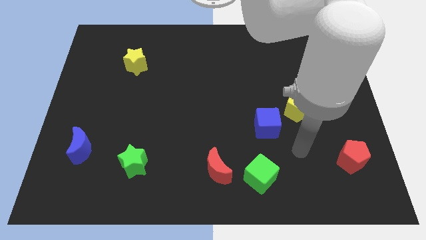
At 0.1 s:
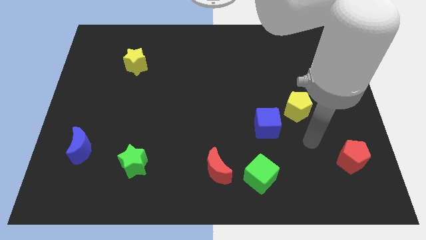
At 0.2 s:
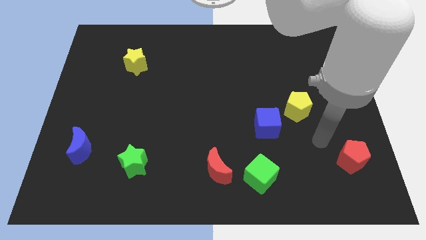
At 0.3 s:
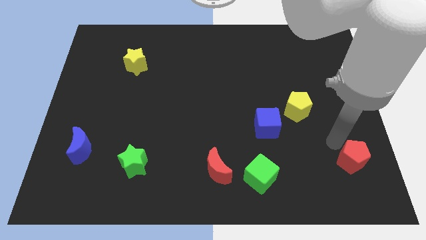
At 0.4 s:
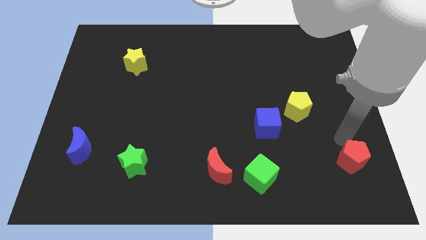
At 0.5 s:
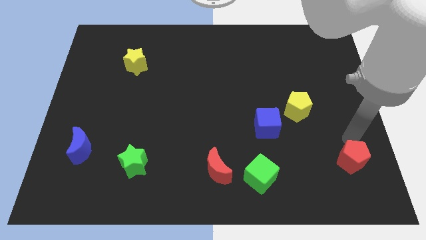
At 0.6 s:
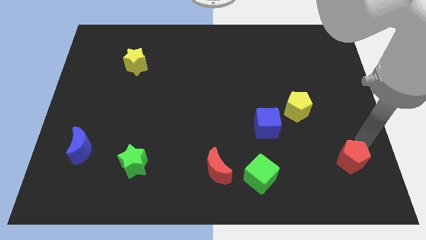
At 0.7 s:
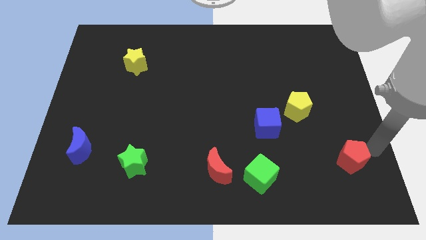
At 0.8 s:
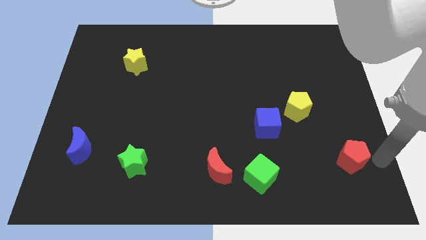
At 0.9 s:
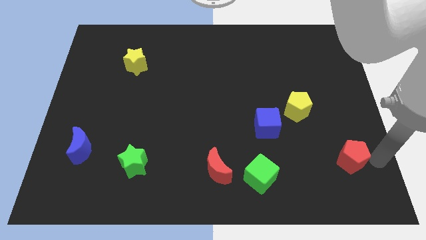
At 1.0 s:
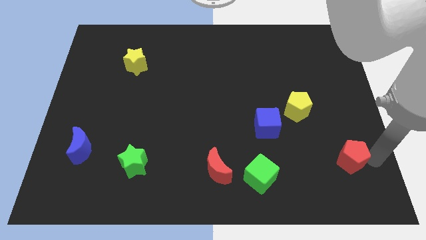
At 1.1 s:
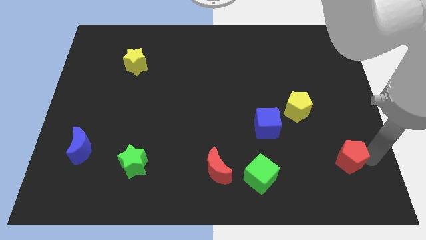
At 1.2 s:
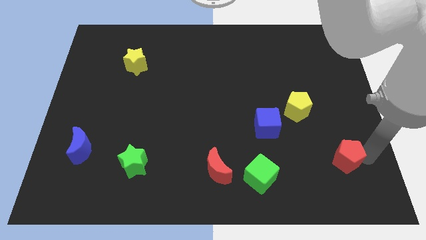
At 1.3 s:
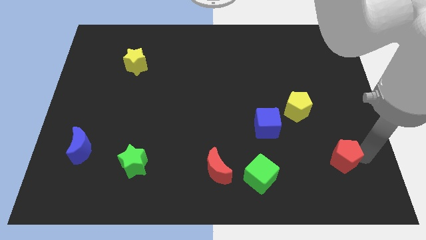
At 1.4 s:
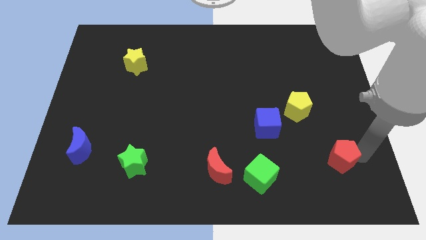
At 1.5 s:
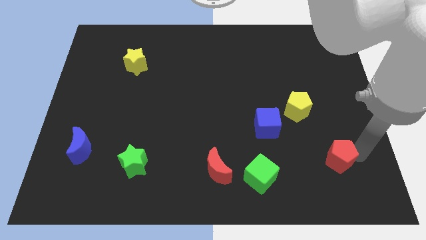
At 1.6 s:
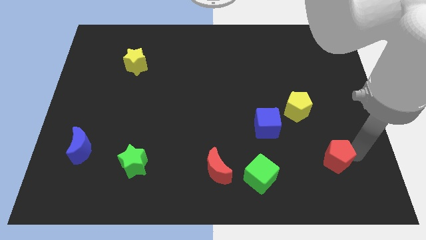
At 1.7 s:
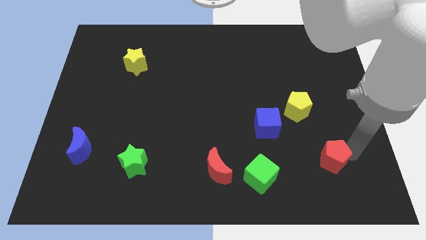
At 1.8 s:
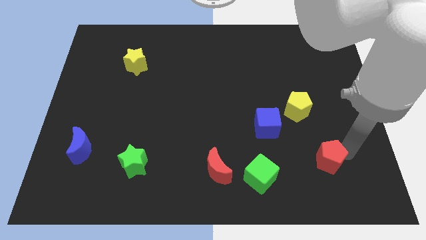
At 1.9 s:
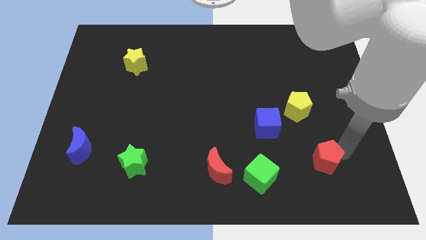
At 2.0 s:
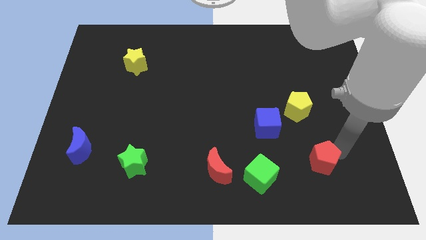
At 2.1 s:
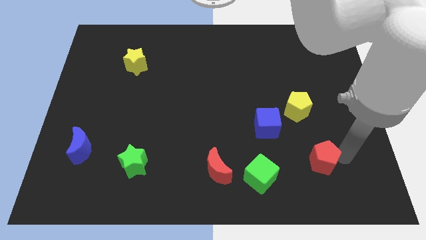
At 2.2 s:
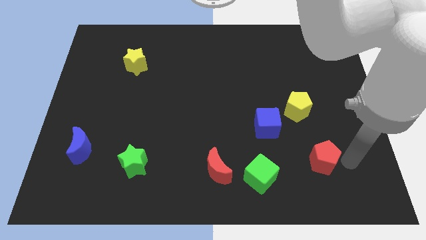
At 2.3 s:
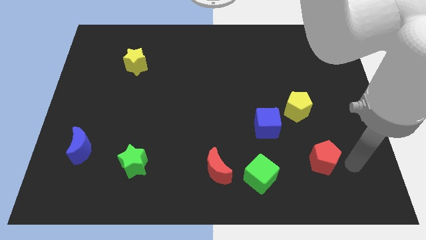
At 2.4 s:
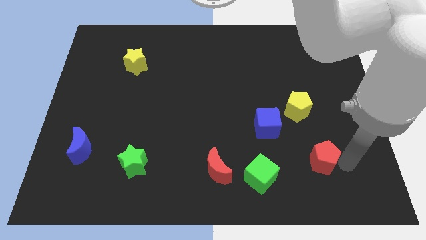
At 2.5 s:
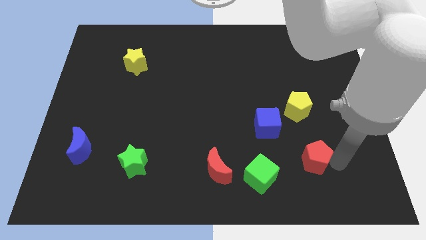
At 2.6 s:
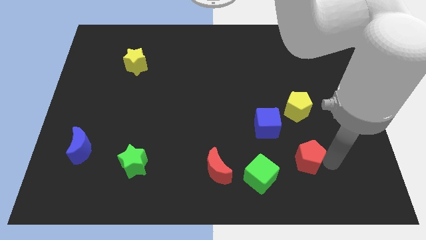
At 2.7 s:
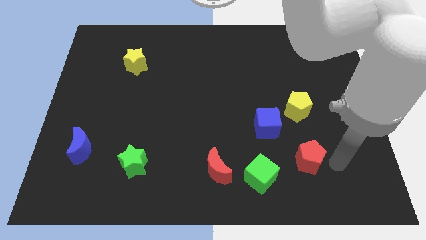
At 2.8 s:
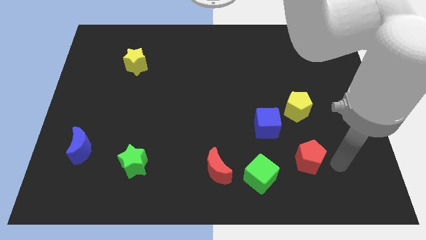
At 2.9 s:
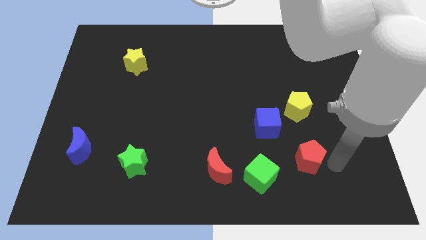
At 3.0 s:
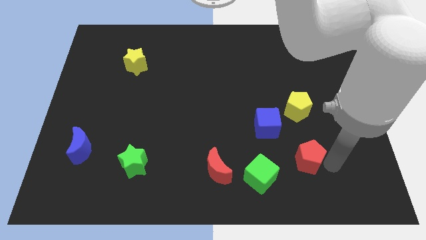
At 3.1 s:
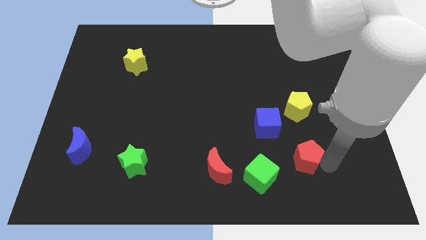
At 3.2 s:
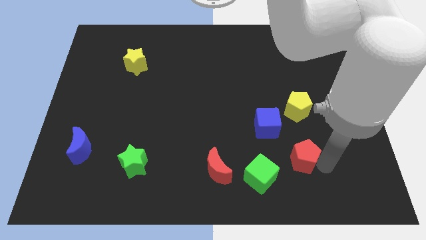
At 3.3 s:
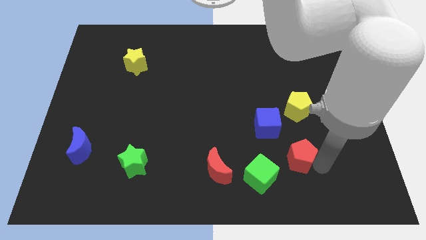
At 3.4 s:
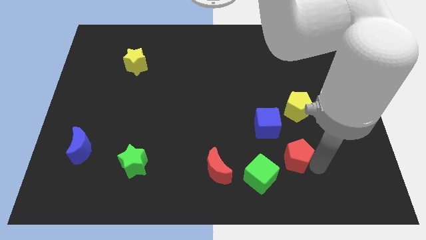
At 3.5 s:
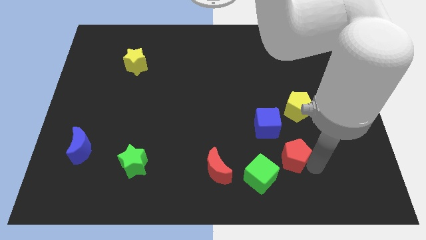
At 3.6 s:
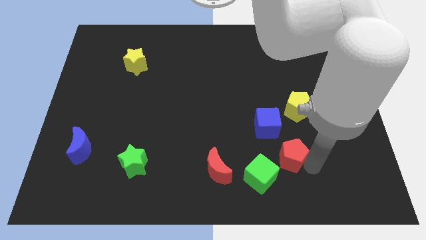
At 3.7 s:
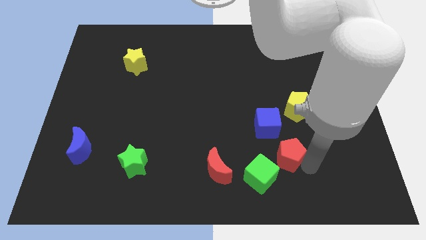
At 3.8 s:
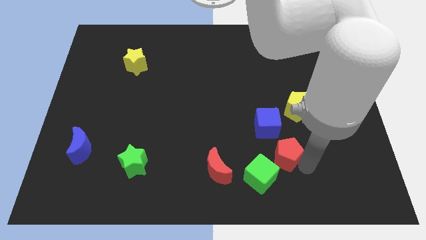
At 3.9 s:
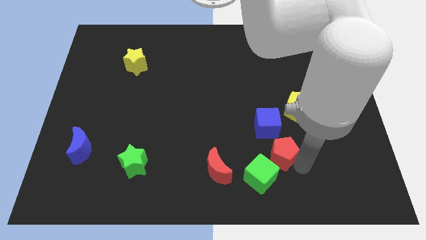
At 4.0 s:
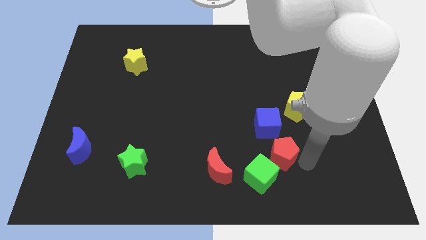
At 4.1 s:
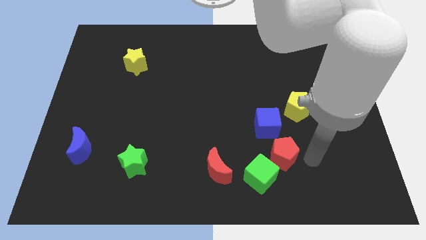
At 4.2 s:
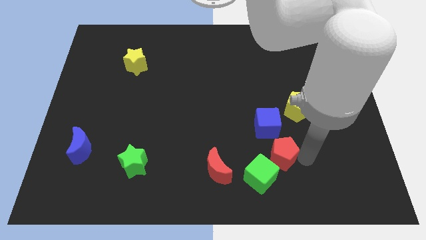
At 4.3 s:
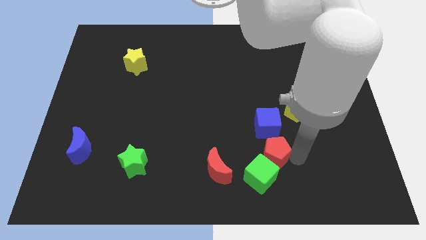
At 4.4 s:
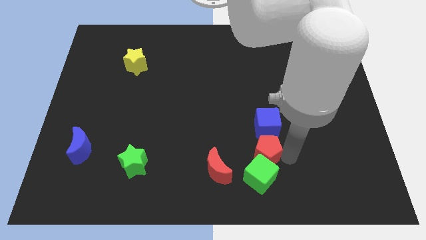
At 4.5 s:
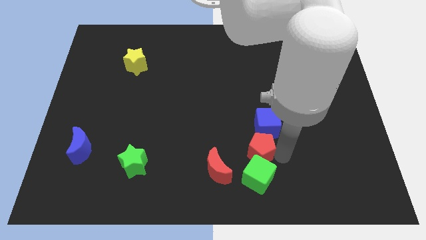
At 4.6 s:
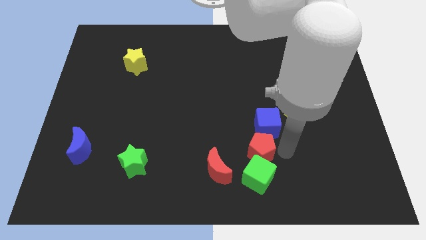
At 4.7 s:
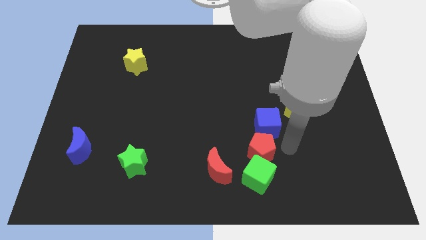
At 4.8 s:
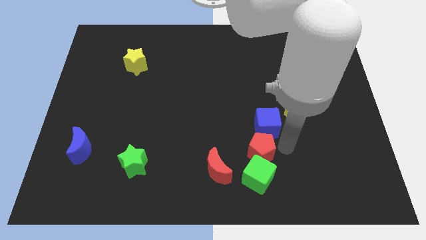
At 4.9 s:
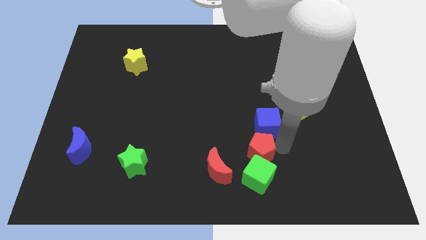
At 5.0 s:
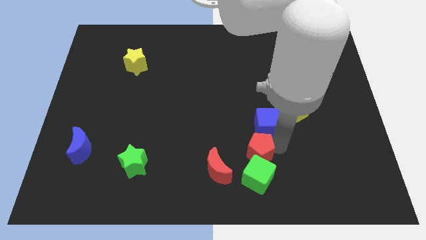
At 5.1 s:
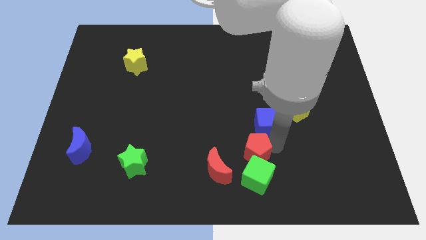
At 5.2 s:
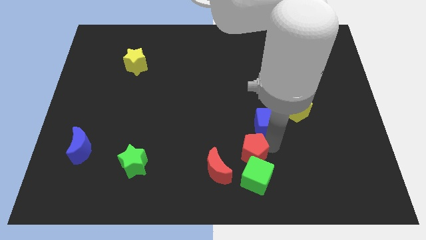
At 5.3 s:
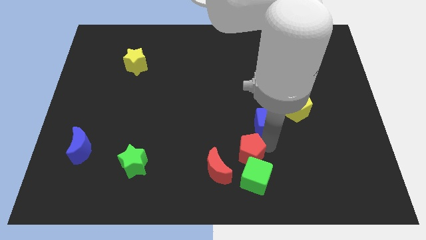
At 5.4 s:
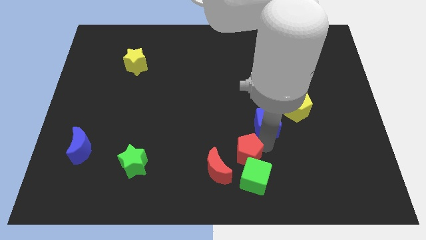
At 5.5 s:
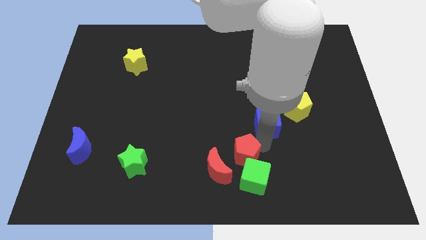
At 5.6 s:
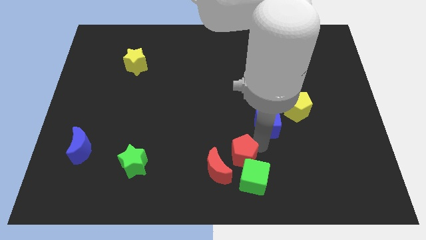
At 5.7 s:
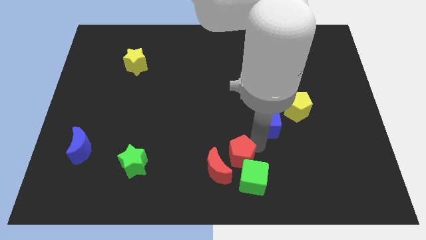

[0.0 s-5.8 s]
slide the red pentagon next to the red moon

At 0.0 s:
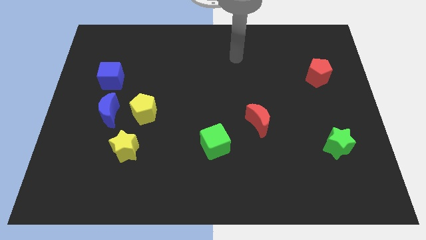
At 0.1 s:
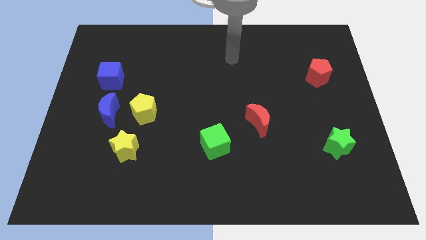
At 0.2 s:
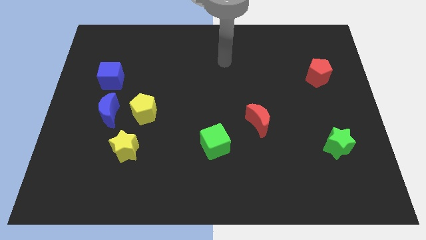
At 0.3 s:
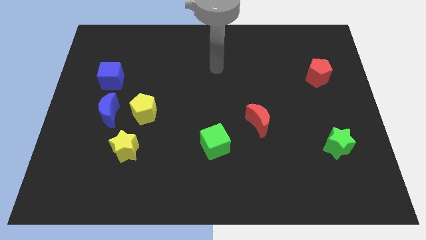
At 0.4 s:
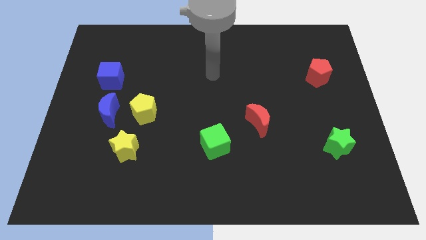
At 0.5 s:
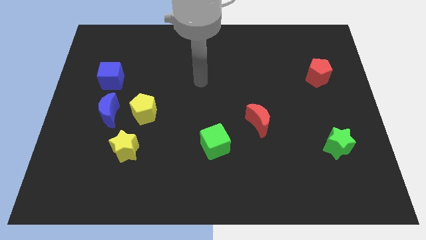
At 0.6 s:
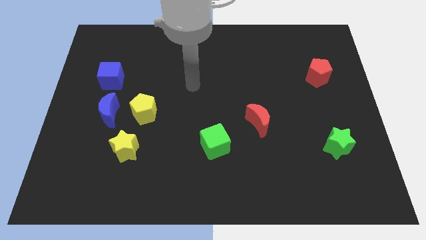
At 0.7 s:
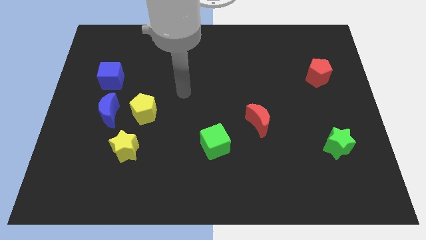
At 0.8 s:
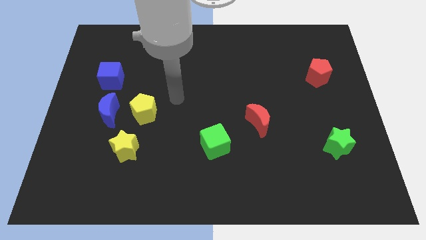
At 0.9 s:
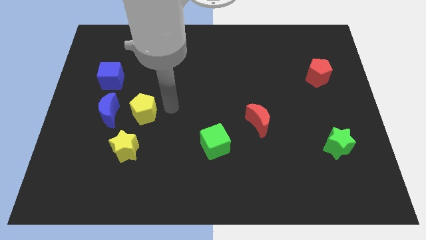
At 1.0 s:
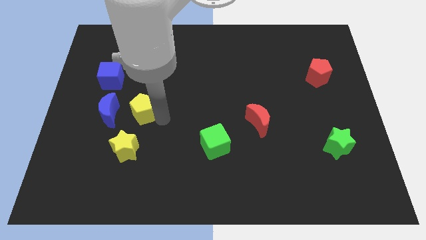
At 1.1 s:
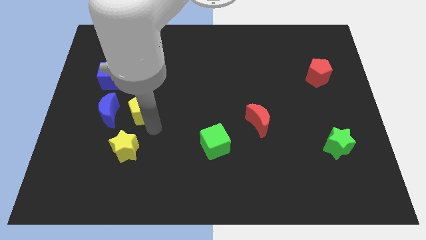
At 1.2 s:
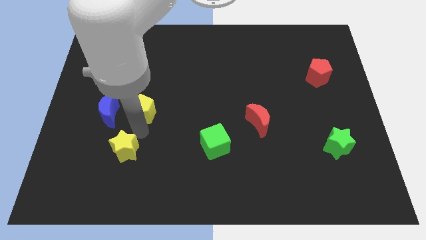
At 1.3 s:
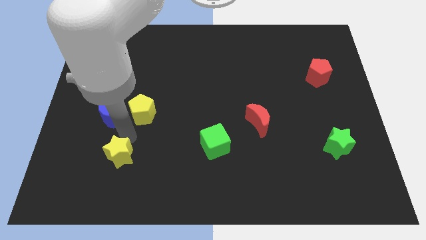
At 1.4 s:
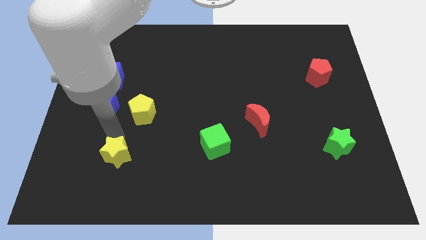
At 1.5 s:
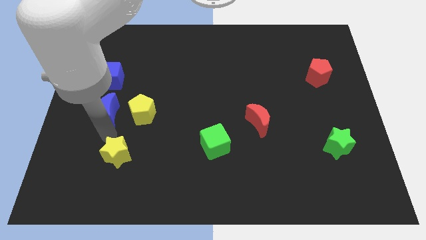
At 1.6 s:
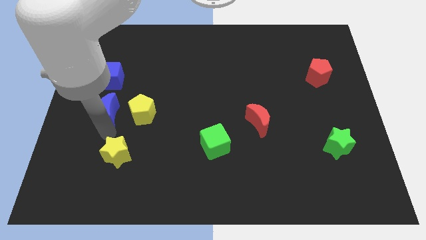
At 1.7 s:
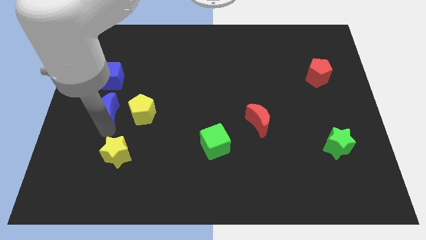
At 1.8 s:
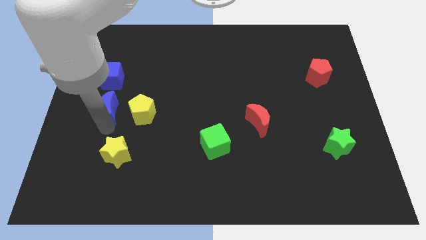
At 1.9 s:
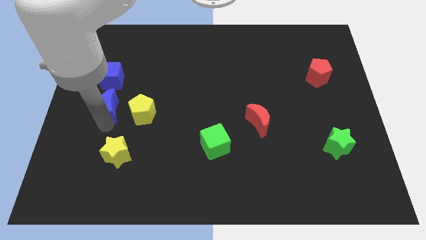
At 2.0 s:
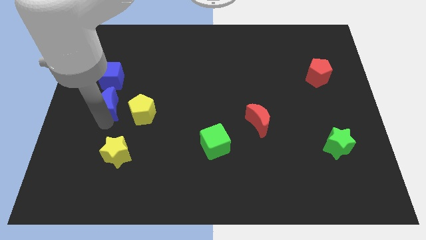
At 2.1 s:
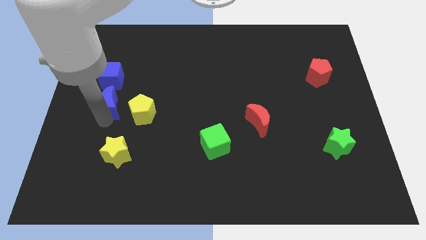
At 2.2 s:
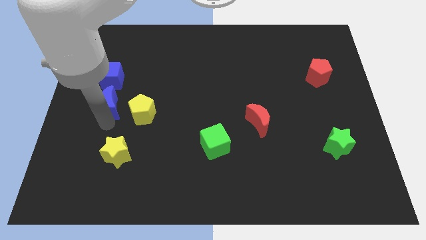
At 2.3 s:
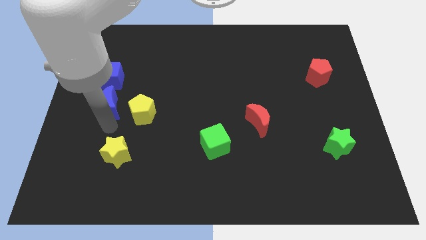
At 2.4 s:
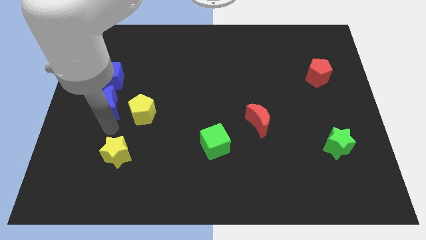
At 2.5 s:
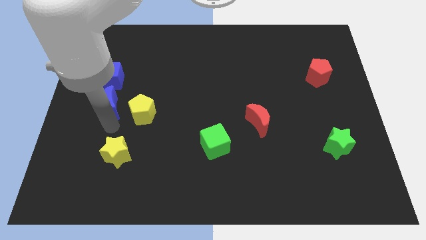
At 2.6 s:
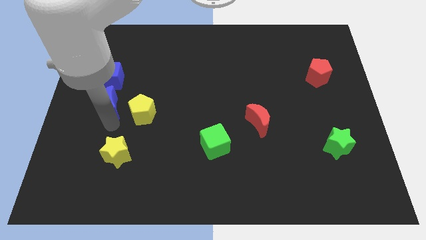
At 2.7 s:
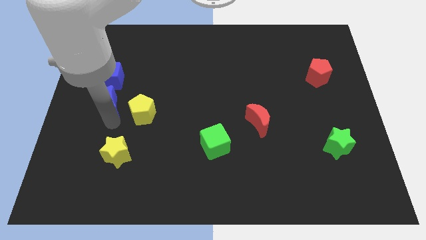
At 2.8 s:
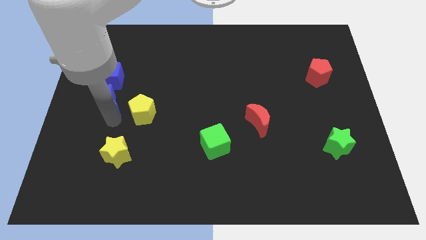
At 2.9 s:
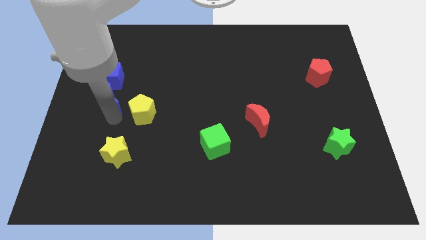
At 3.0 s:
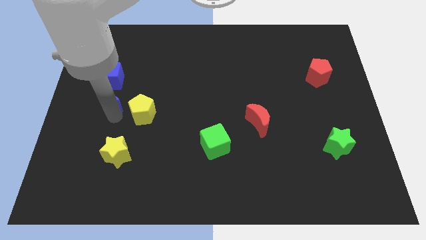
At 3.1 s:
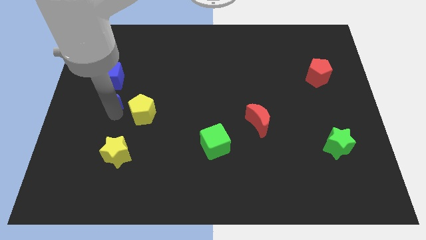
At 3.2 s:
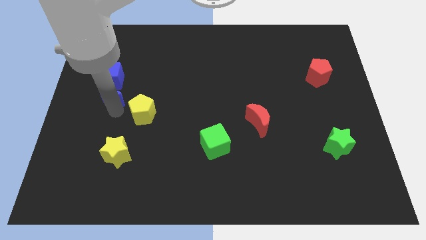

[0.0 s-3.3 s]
put the blue moon to the blue cube
